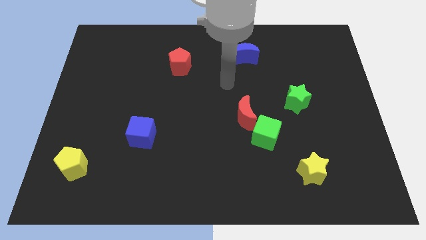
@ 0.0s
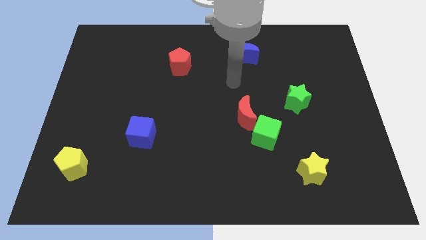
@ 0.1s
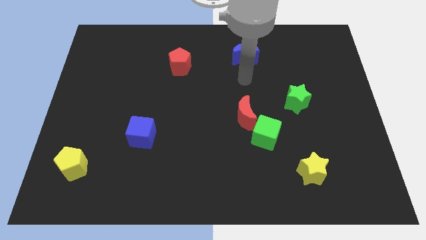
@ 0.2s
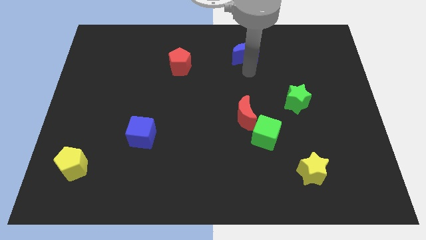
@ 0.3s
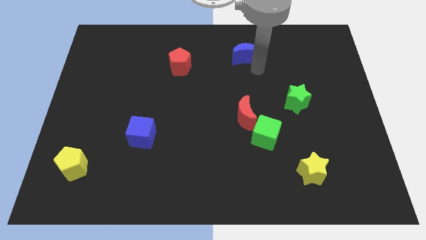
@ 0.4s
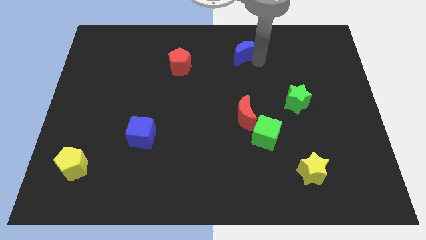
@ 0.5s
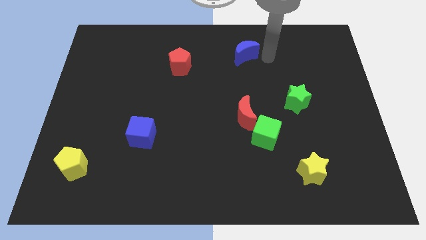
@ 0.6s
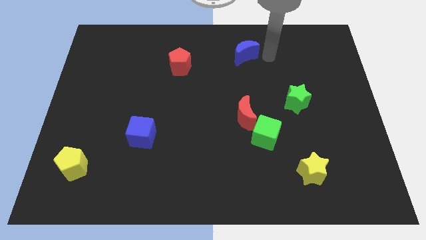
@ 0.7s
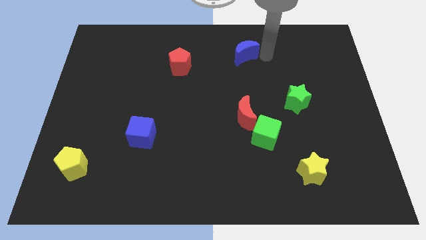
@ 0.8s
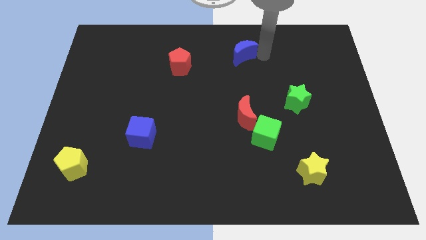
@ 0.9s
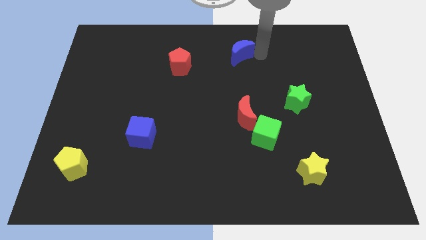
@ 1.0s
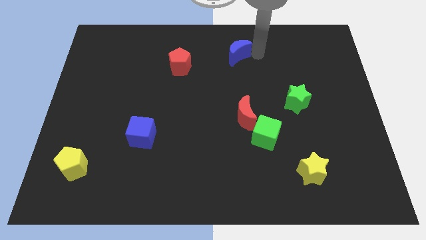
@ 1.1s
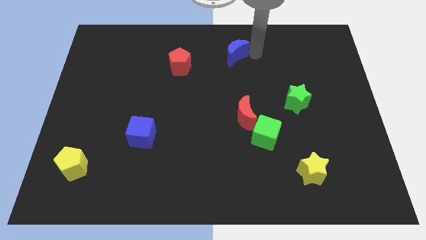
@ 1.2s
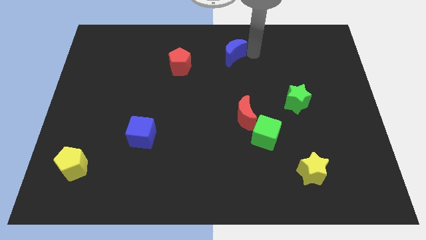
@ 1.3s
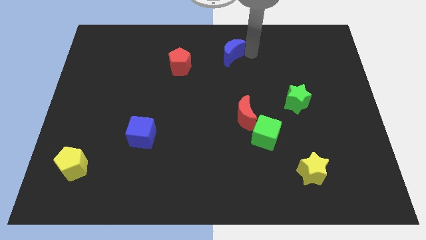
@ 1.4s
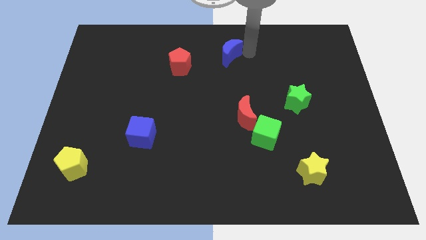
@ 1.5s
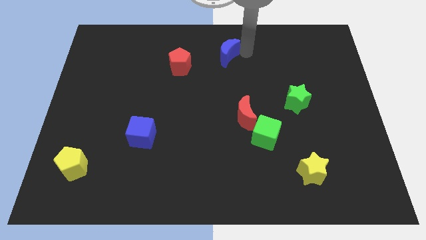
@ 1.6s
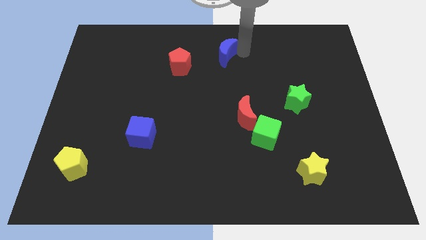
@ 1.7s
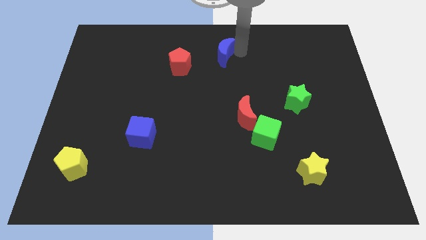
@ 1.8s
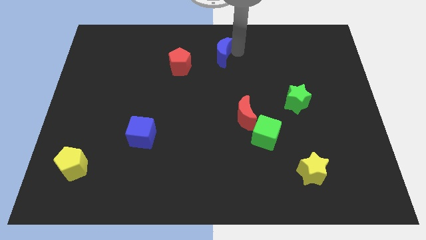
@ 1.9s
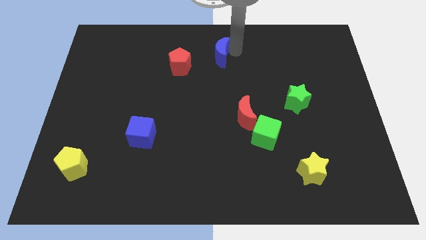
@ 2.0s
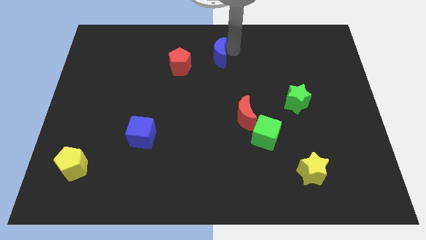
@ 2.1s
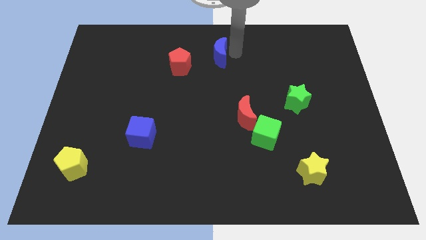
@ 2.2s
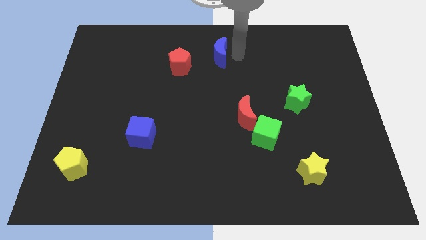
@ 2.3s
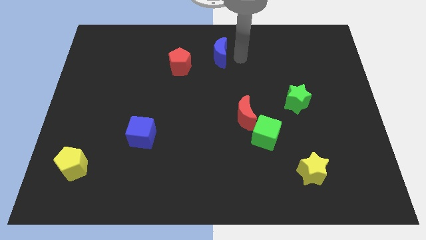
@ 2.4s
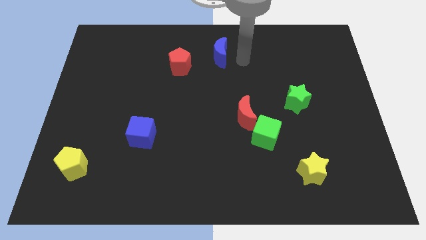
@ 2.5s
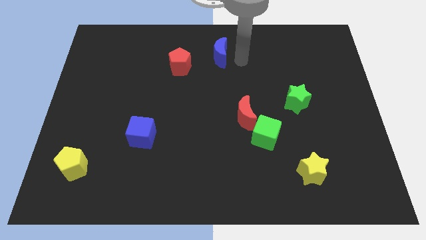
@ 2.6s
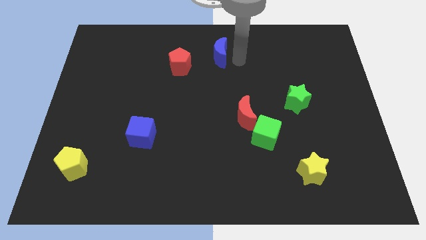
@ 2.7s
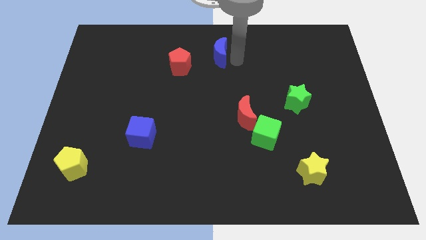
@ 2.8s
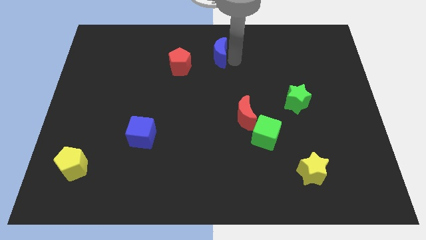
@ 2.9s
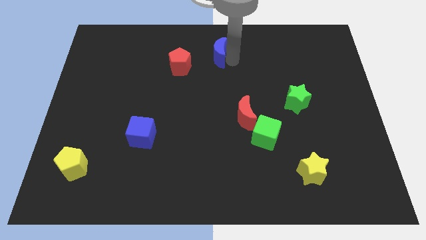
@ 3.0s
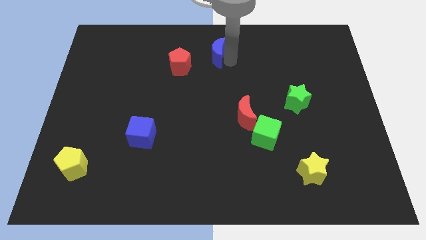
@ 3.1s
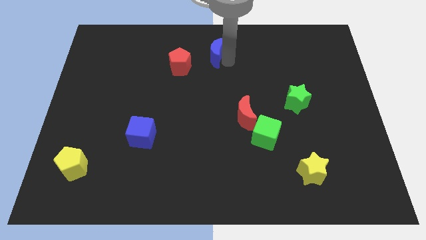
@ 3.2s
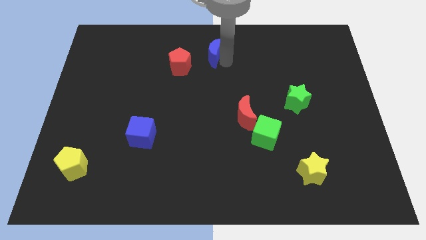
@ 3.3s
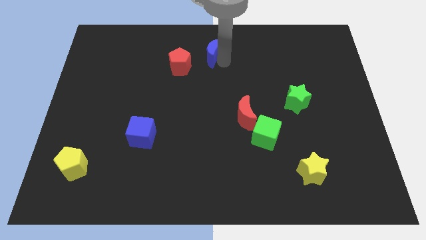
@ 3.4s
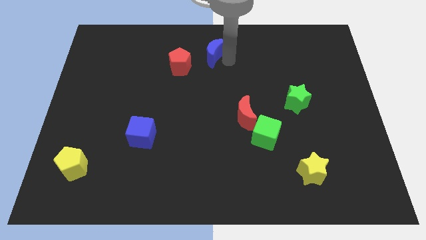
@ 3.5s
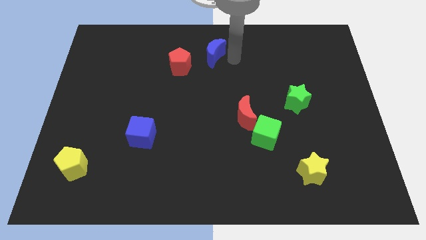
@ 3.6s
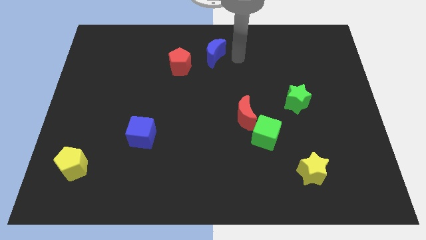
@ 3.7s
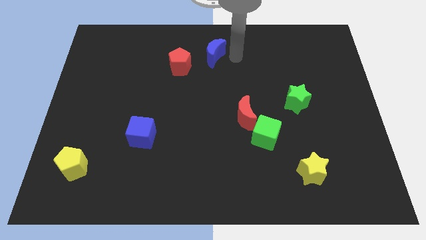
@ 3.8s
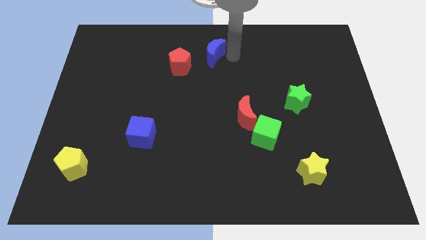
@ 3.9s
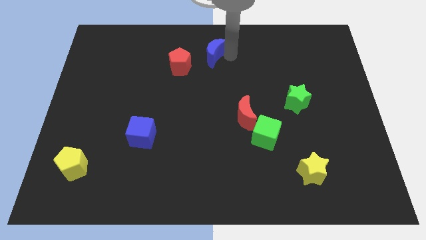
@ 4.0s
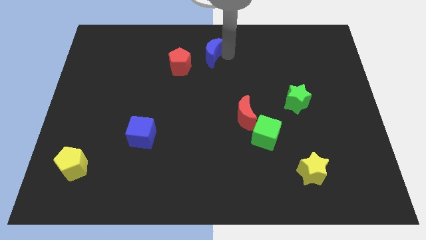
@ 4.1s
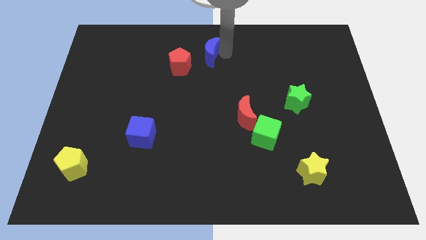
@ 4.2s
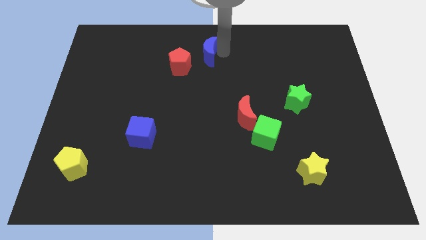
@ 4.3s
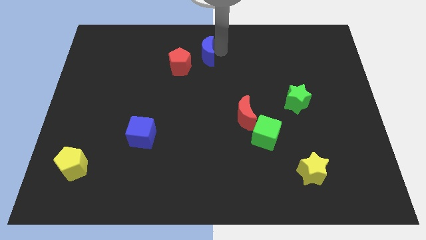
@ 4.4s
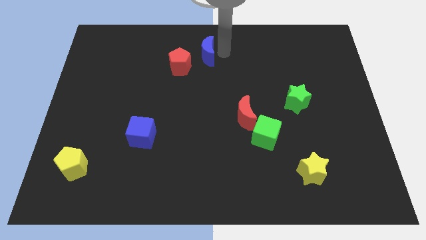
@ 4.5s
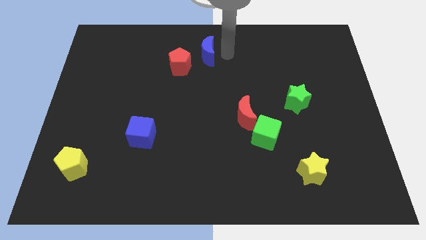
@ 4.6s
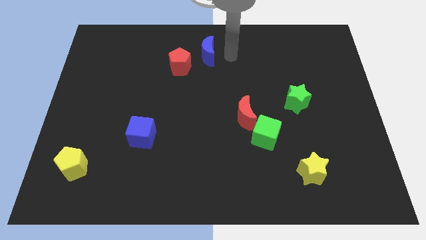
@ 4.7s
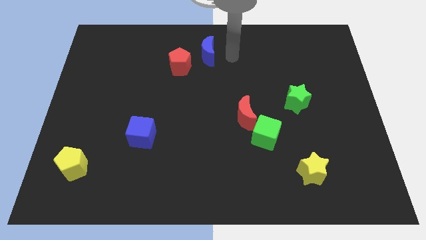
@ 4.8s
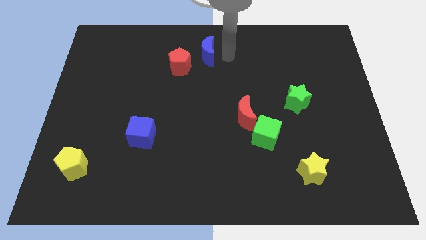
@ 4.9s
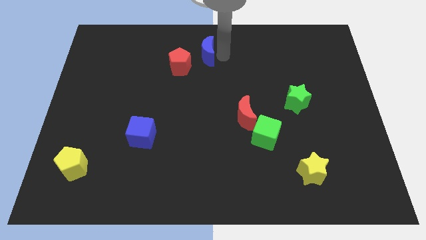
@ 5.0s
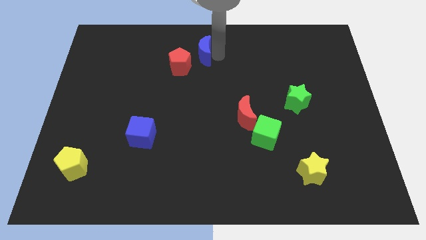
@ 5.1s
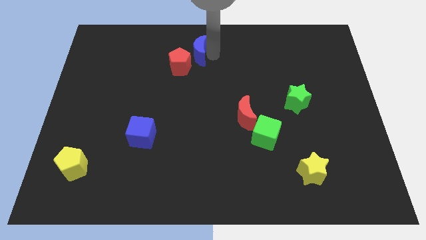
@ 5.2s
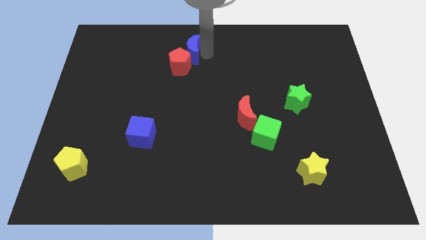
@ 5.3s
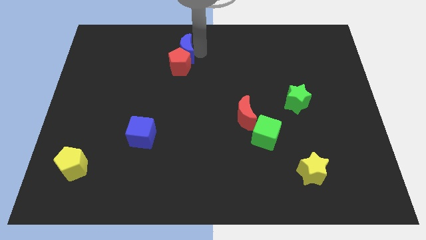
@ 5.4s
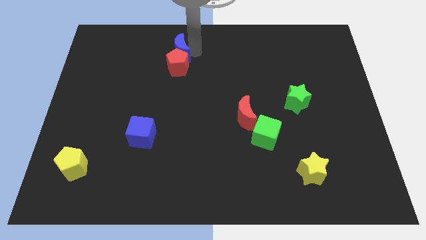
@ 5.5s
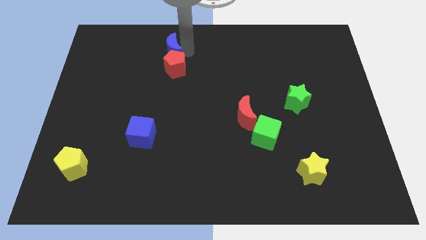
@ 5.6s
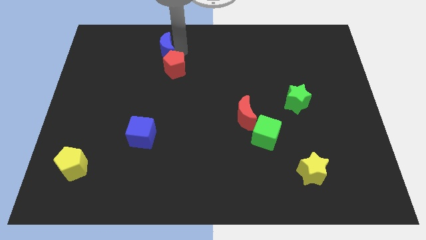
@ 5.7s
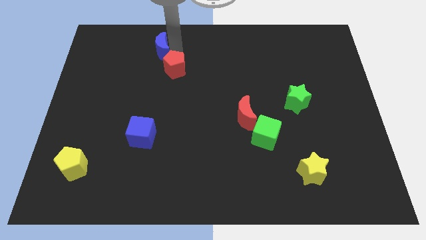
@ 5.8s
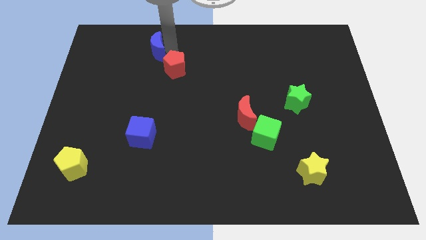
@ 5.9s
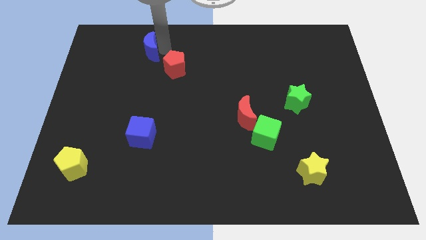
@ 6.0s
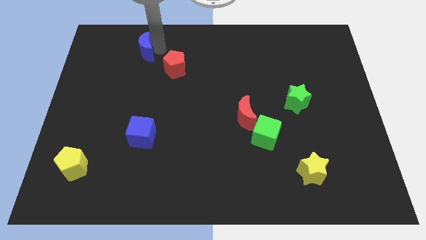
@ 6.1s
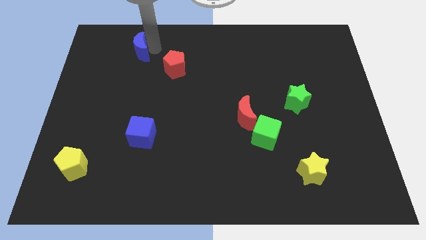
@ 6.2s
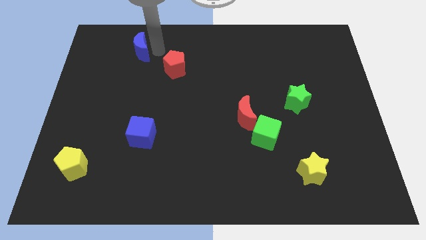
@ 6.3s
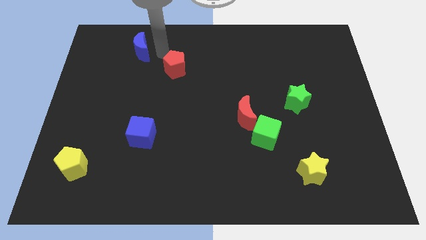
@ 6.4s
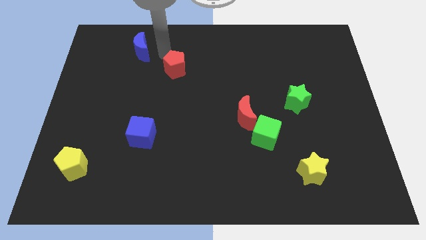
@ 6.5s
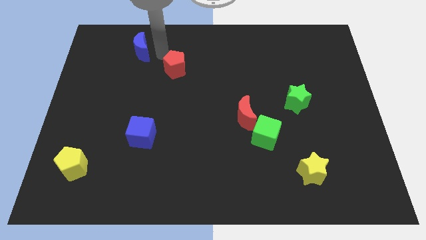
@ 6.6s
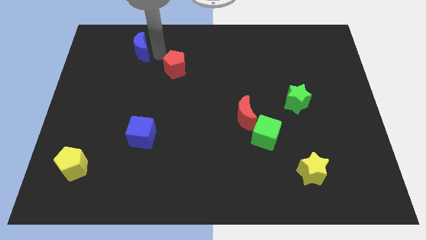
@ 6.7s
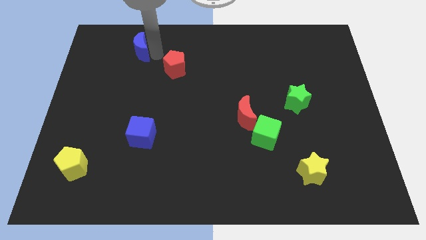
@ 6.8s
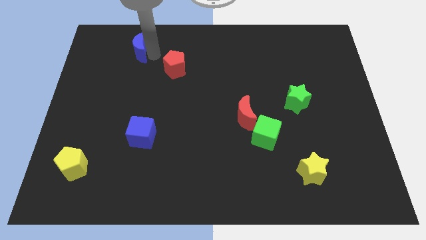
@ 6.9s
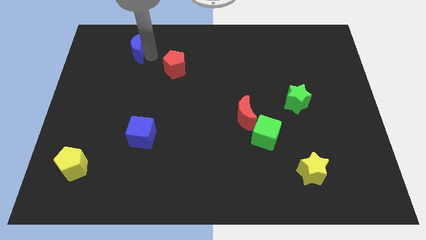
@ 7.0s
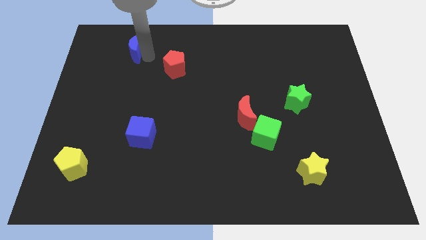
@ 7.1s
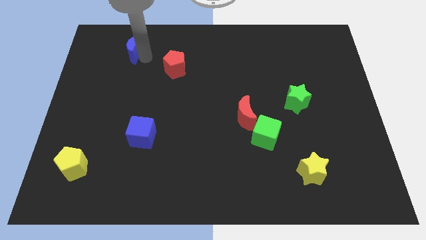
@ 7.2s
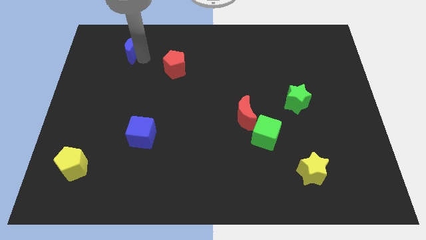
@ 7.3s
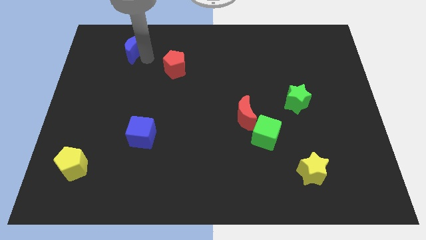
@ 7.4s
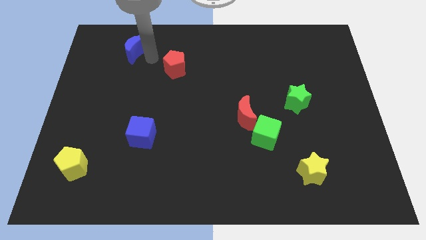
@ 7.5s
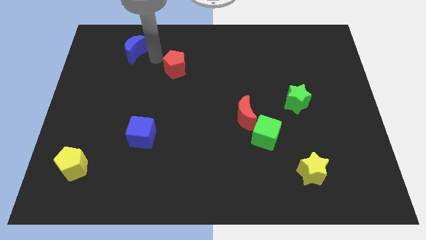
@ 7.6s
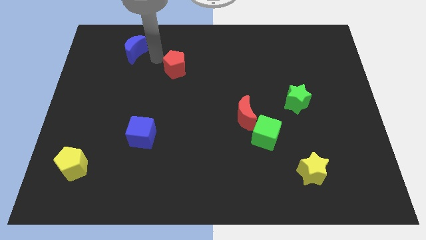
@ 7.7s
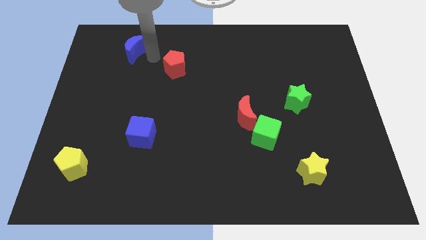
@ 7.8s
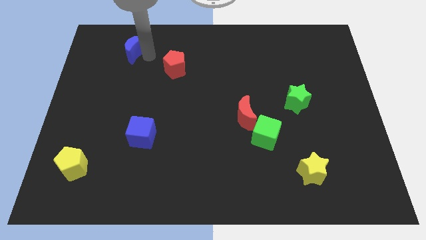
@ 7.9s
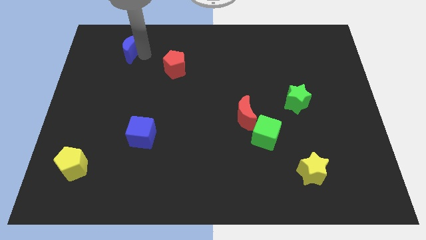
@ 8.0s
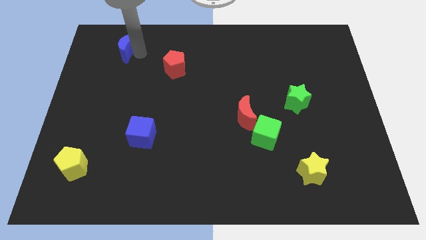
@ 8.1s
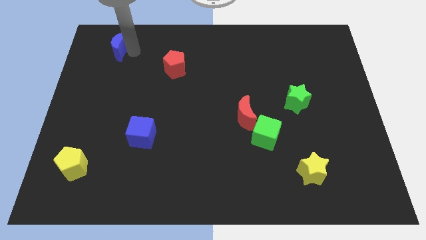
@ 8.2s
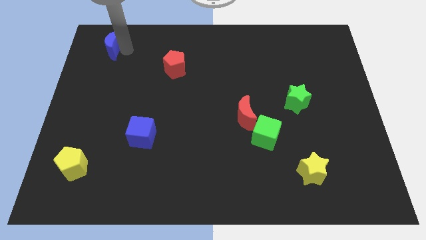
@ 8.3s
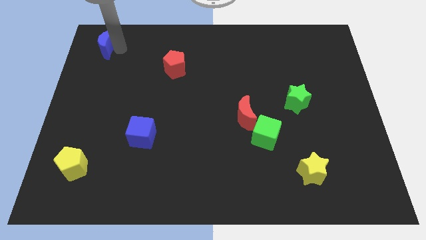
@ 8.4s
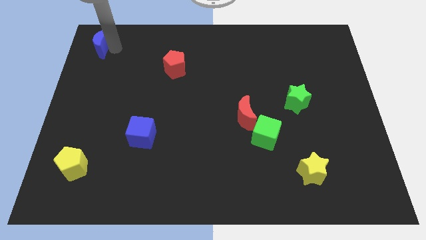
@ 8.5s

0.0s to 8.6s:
push the blue moon to the top left of the board
